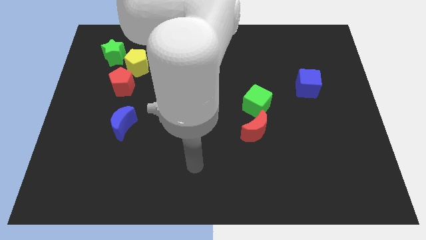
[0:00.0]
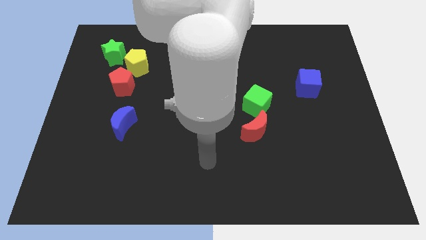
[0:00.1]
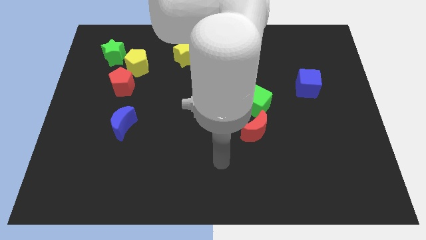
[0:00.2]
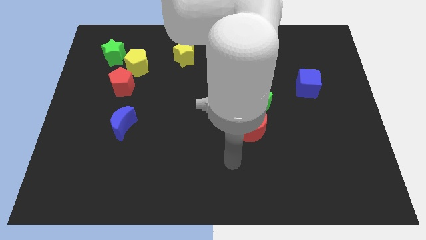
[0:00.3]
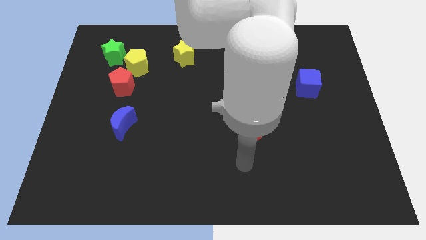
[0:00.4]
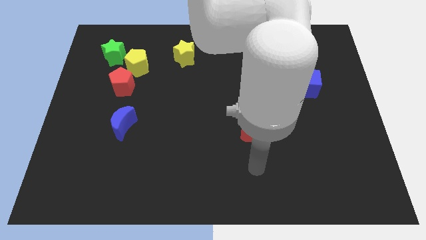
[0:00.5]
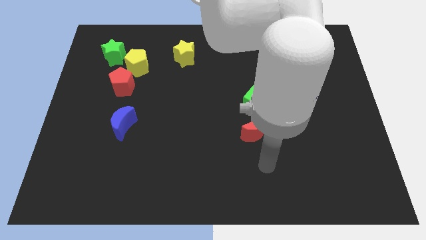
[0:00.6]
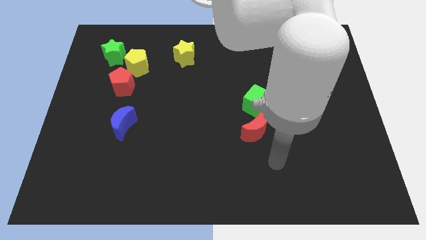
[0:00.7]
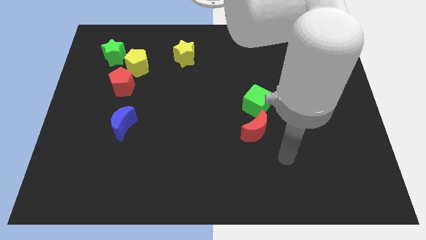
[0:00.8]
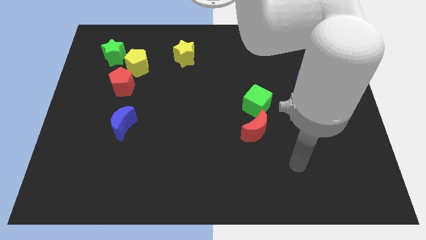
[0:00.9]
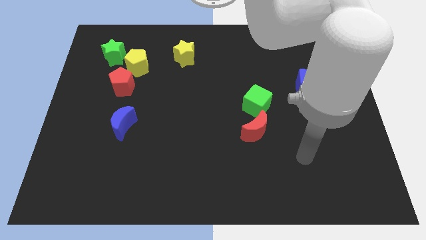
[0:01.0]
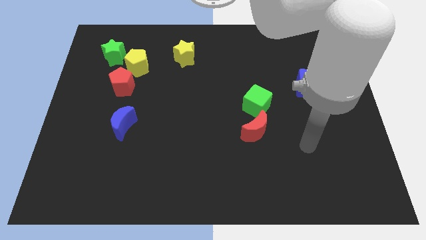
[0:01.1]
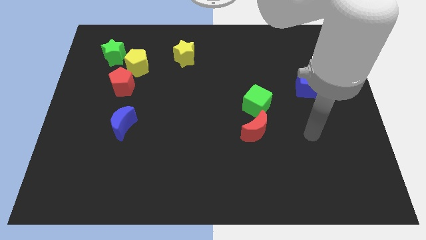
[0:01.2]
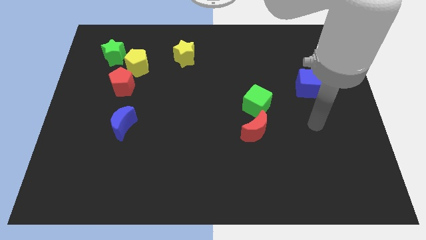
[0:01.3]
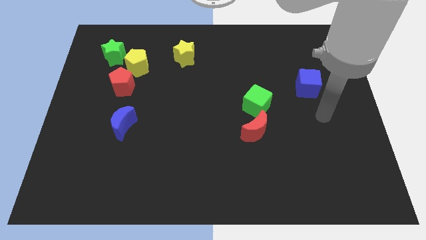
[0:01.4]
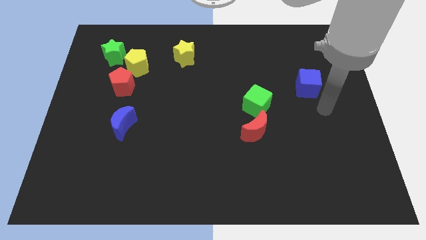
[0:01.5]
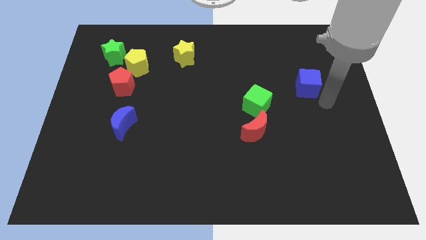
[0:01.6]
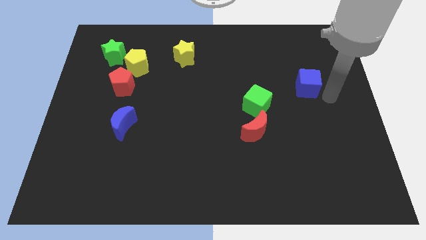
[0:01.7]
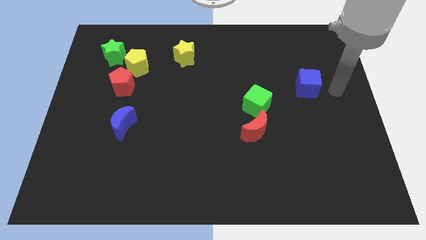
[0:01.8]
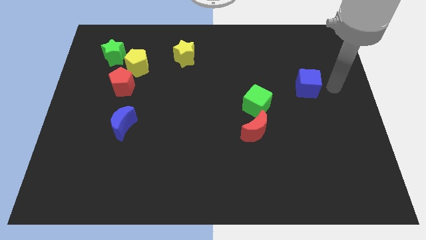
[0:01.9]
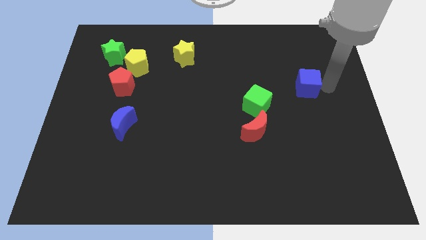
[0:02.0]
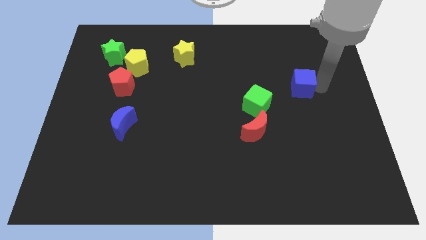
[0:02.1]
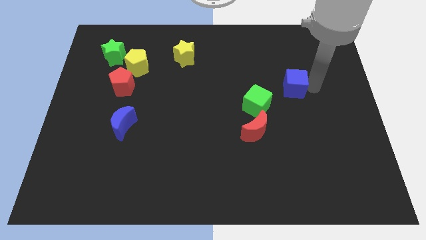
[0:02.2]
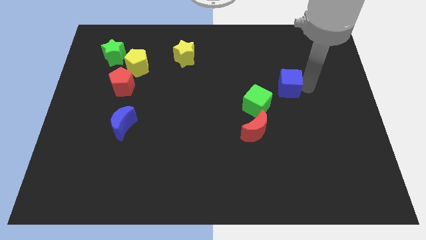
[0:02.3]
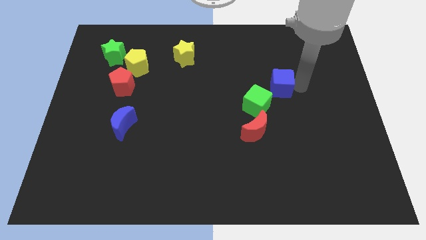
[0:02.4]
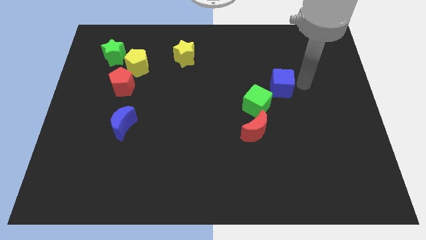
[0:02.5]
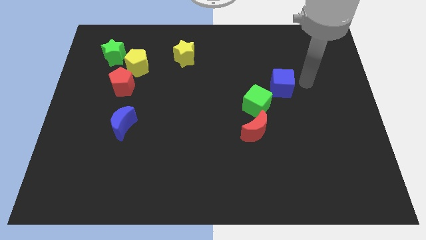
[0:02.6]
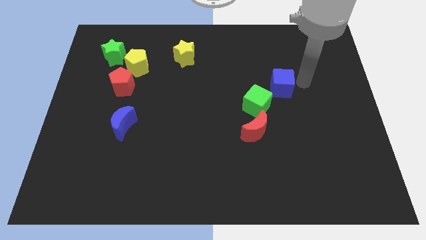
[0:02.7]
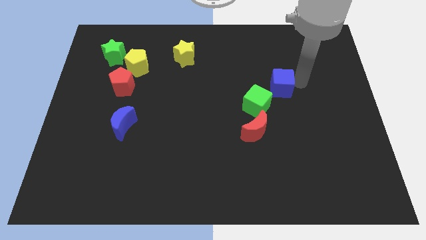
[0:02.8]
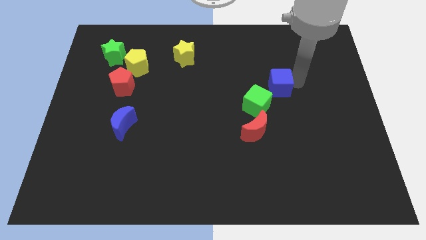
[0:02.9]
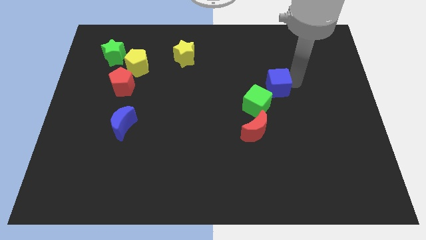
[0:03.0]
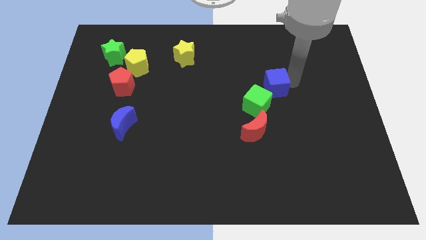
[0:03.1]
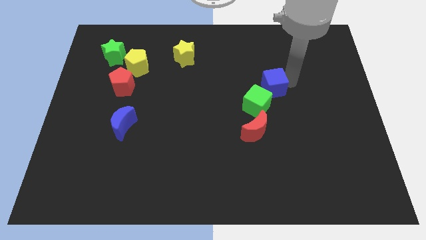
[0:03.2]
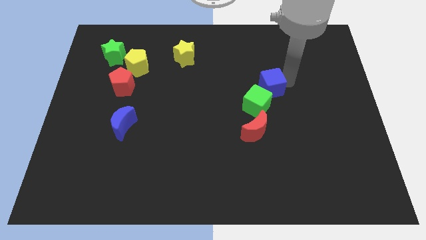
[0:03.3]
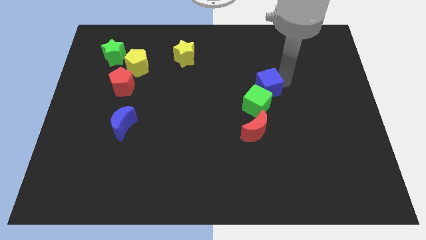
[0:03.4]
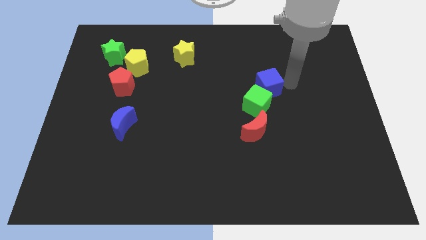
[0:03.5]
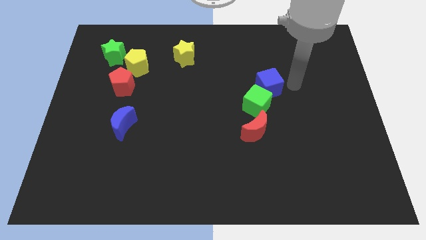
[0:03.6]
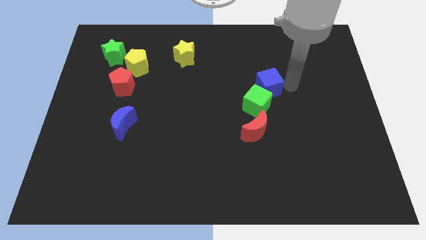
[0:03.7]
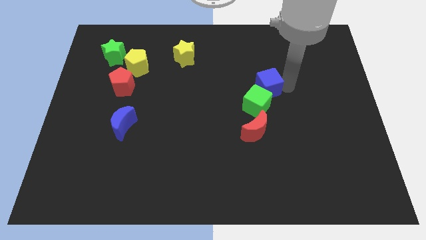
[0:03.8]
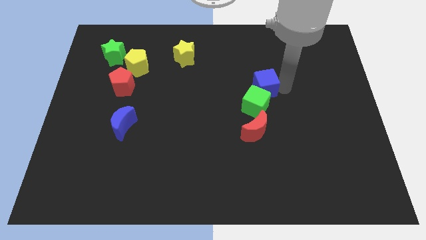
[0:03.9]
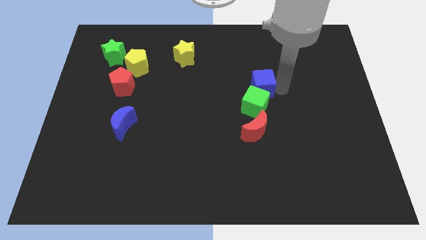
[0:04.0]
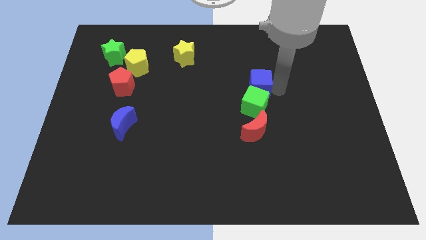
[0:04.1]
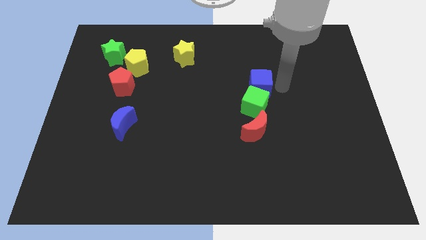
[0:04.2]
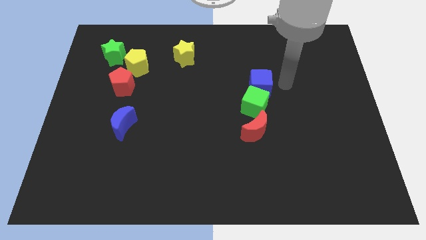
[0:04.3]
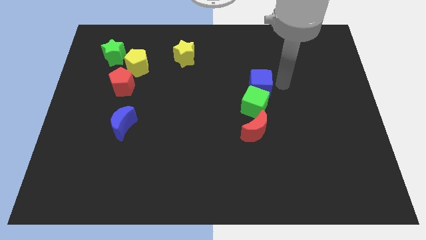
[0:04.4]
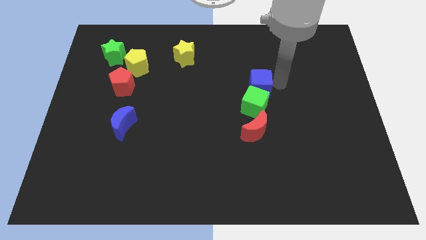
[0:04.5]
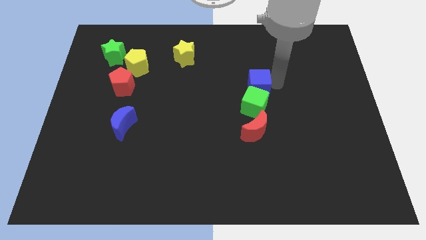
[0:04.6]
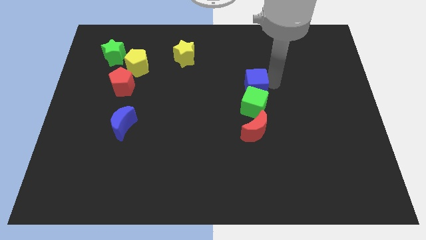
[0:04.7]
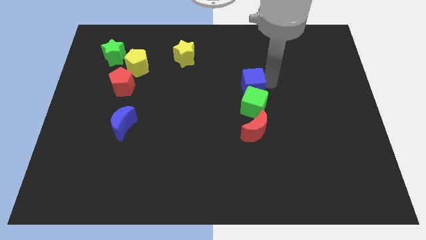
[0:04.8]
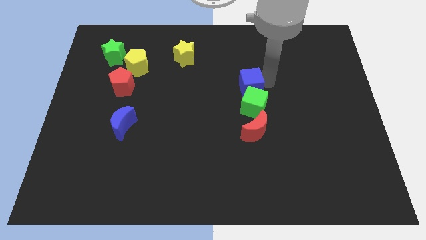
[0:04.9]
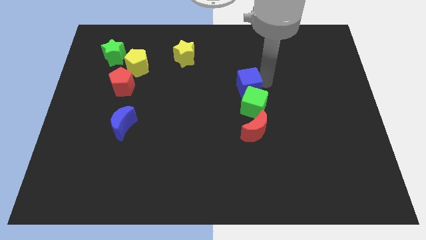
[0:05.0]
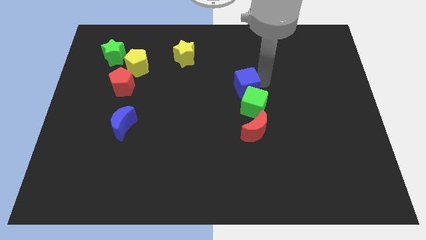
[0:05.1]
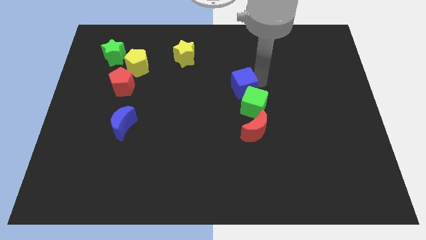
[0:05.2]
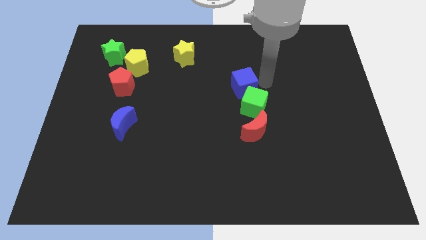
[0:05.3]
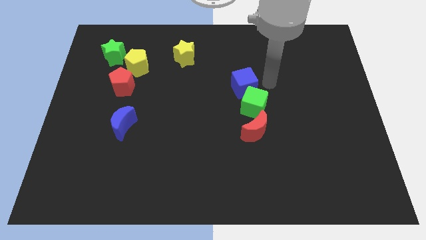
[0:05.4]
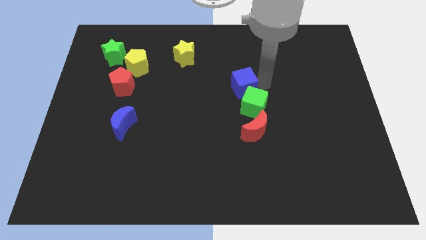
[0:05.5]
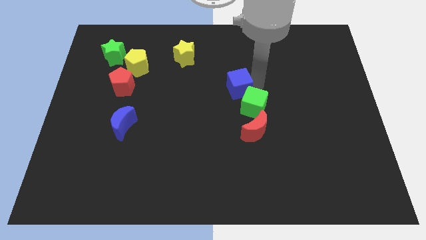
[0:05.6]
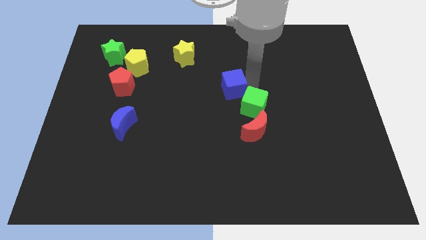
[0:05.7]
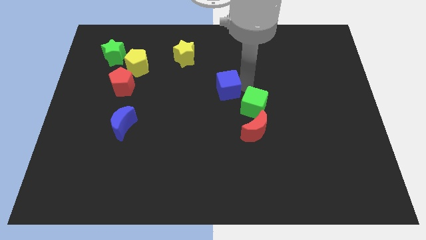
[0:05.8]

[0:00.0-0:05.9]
slide the blue cube to the left

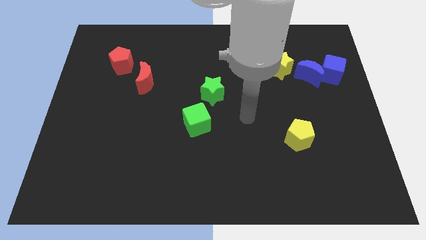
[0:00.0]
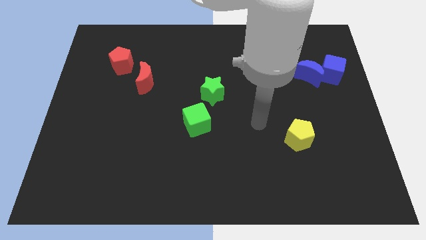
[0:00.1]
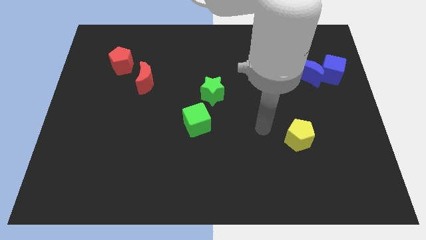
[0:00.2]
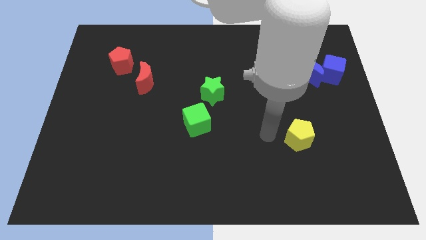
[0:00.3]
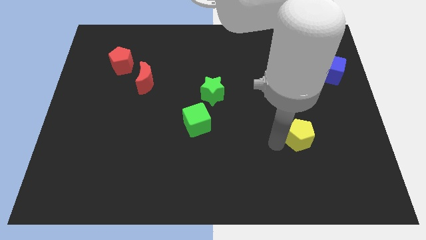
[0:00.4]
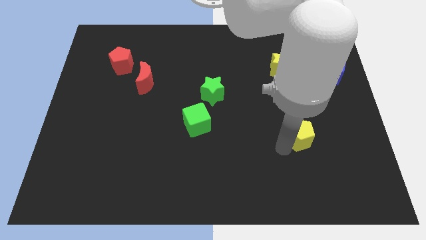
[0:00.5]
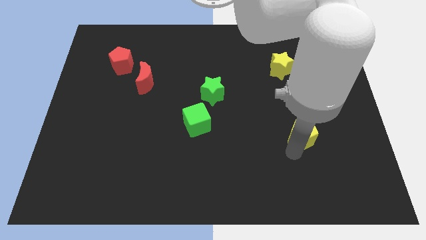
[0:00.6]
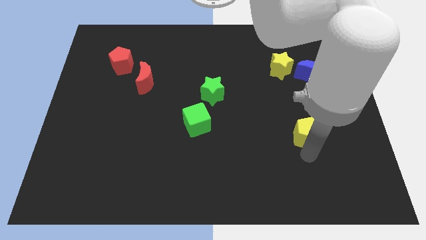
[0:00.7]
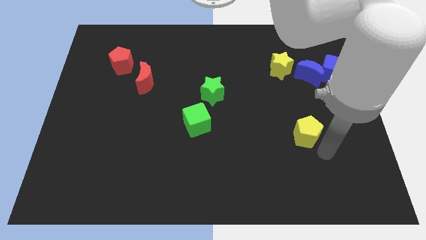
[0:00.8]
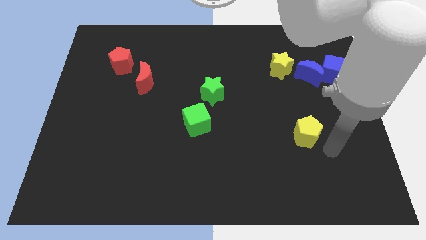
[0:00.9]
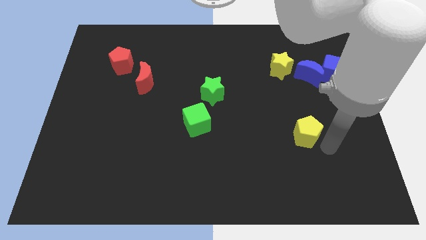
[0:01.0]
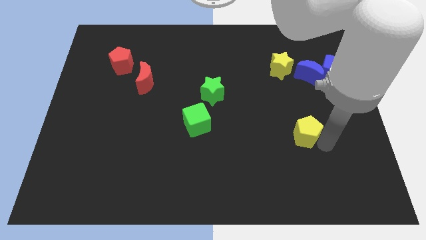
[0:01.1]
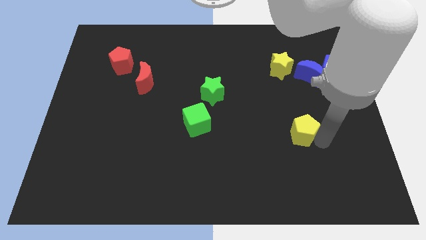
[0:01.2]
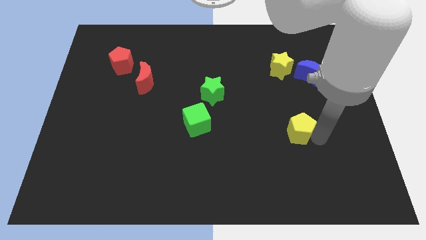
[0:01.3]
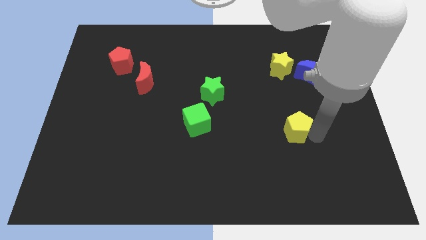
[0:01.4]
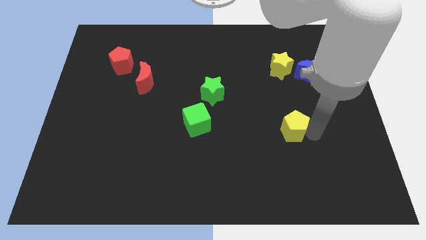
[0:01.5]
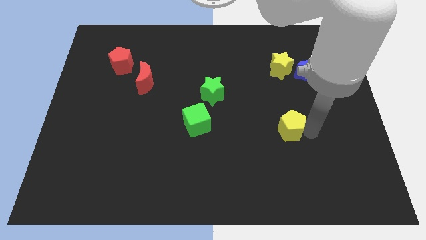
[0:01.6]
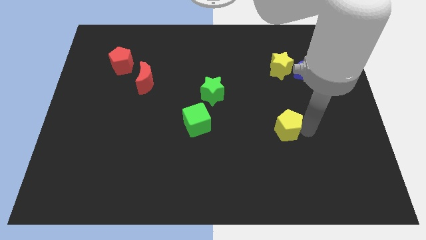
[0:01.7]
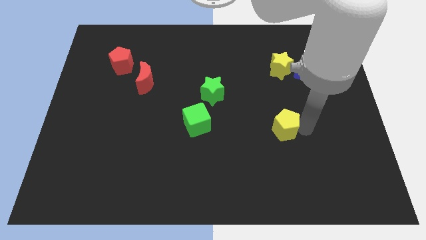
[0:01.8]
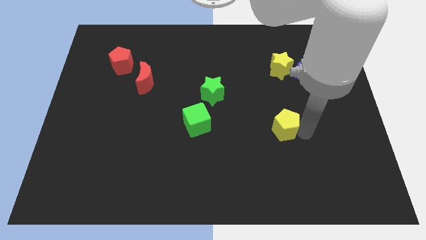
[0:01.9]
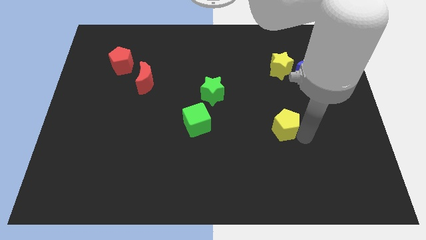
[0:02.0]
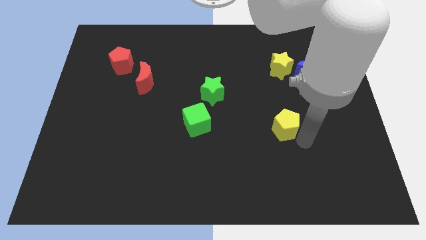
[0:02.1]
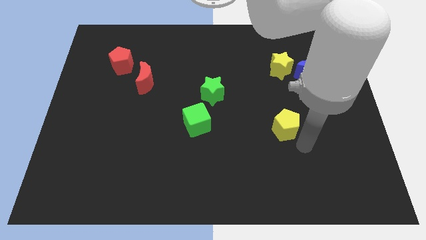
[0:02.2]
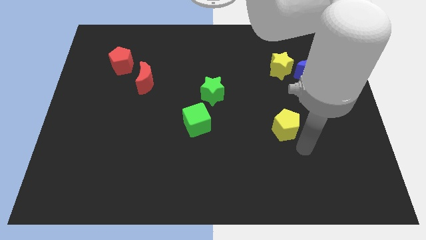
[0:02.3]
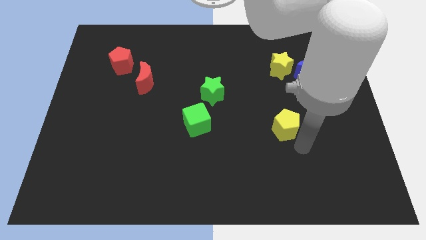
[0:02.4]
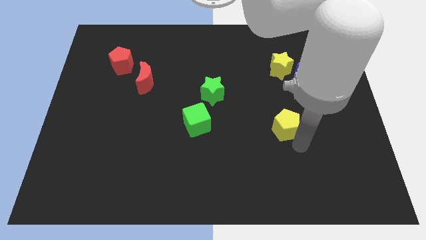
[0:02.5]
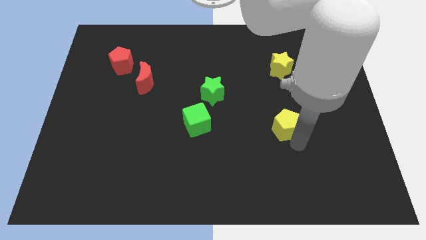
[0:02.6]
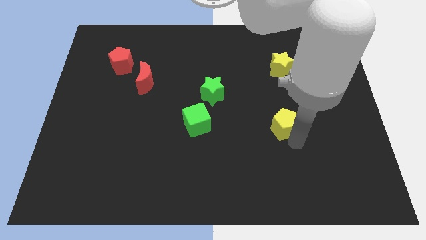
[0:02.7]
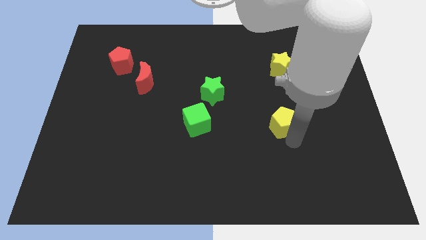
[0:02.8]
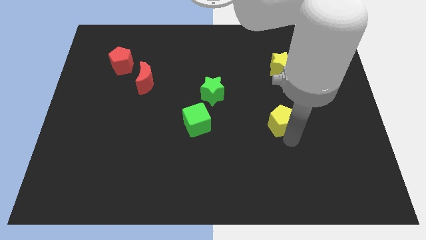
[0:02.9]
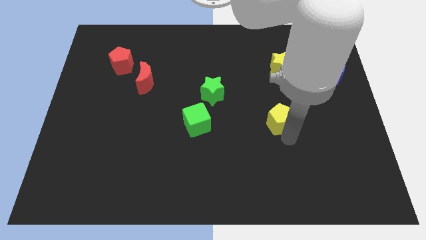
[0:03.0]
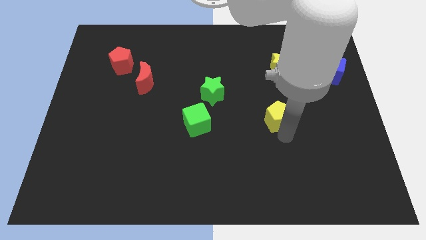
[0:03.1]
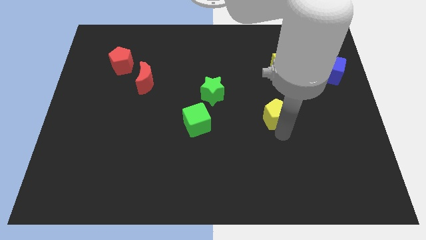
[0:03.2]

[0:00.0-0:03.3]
slightly slide the yellow pentagon up and then to the left
